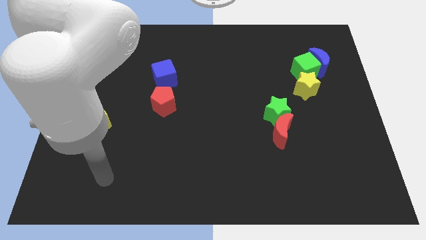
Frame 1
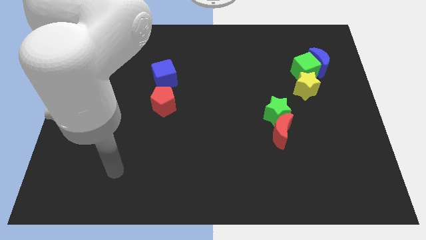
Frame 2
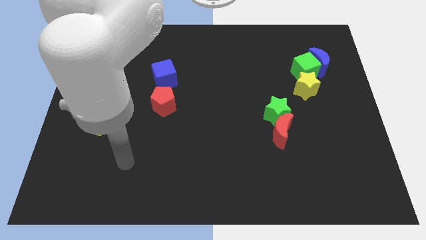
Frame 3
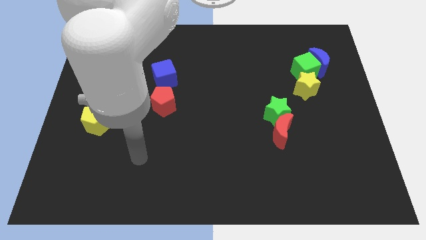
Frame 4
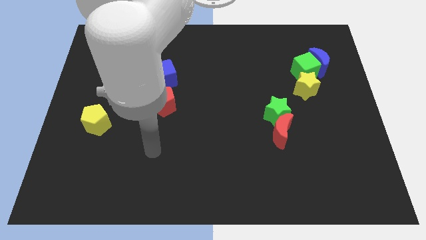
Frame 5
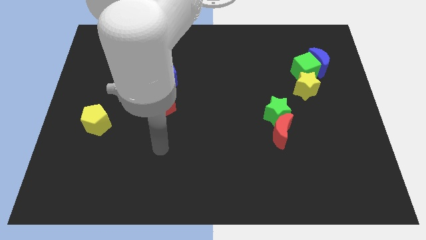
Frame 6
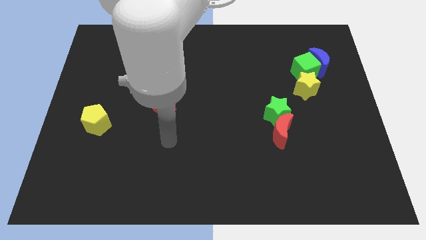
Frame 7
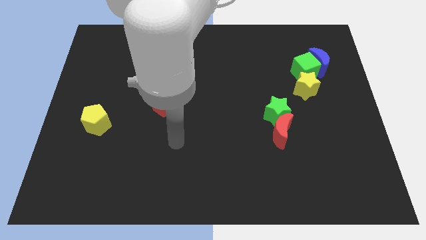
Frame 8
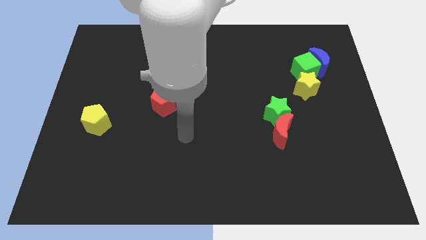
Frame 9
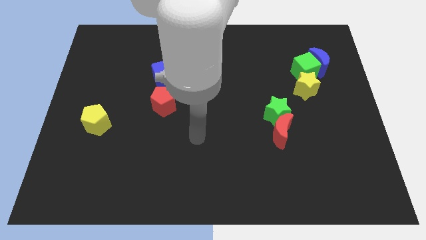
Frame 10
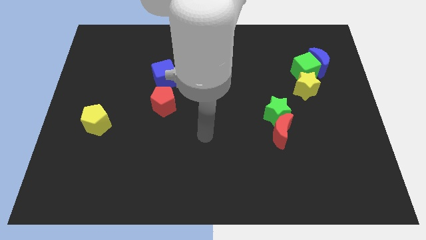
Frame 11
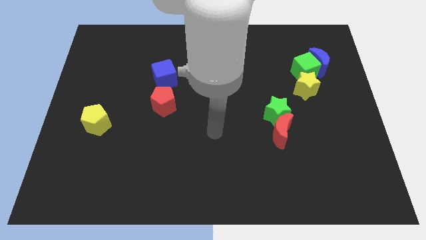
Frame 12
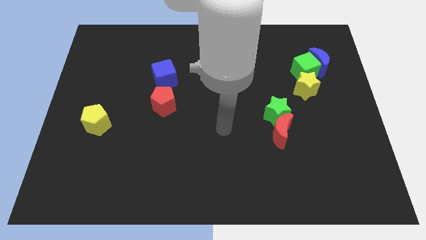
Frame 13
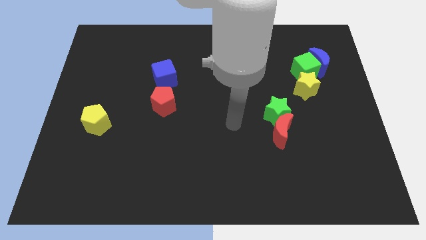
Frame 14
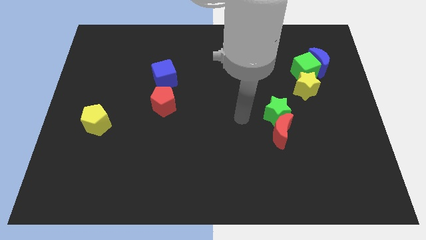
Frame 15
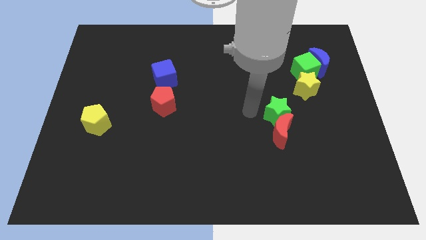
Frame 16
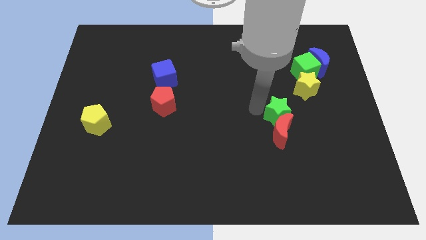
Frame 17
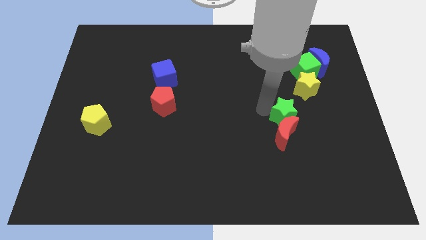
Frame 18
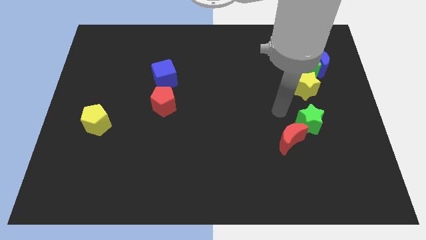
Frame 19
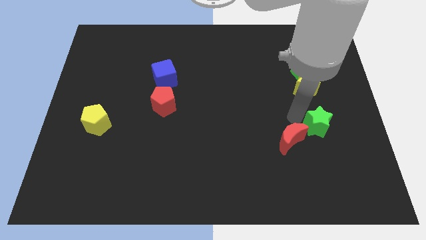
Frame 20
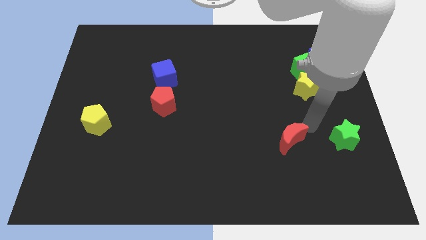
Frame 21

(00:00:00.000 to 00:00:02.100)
pull the red moon apart from the green star

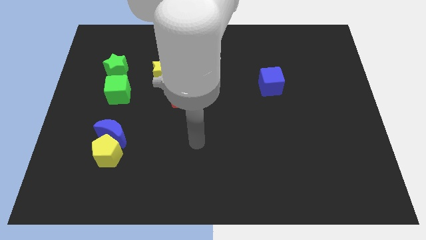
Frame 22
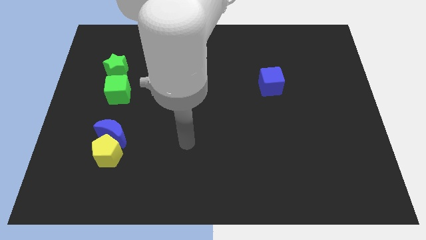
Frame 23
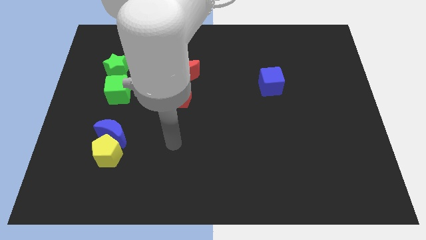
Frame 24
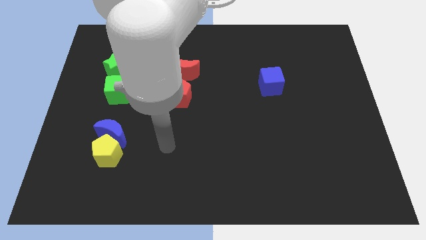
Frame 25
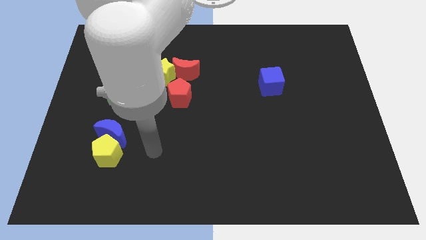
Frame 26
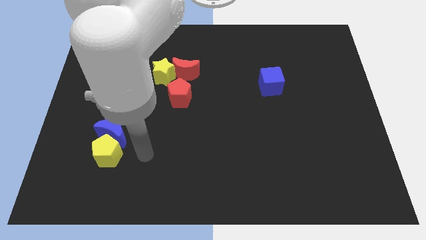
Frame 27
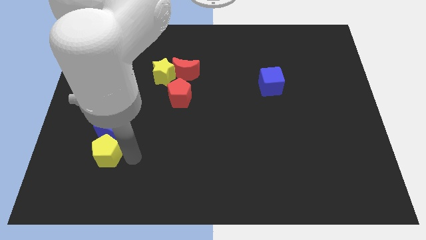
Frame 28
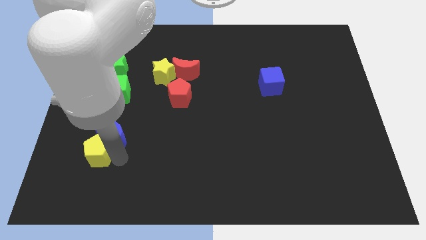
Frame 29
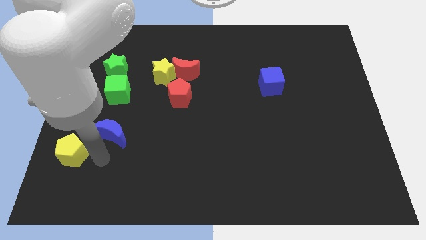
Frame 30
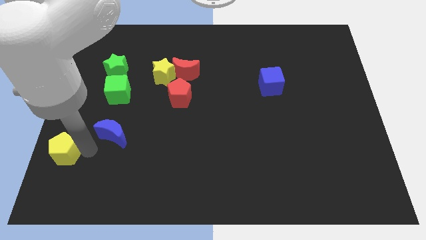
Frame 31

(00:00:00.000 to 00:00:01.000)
separate the blue moon from the yellow pentagon

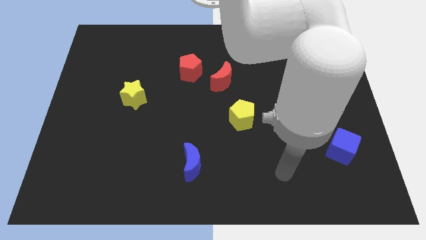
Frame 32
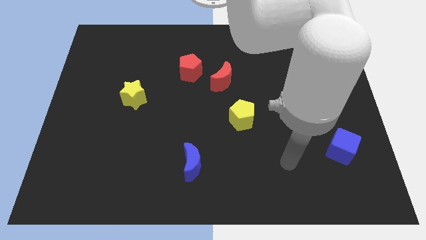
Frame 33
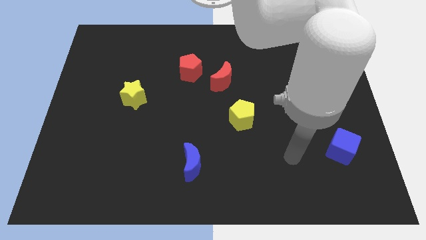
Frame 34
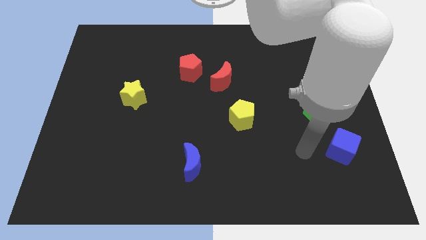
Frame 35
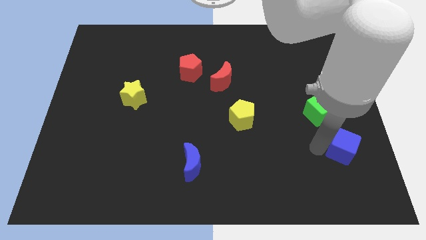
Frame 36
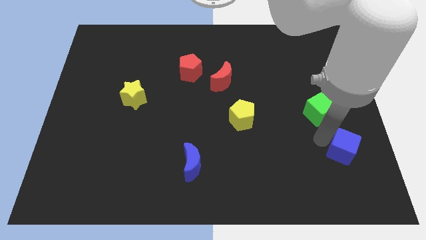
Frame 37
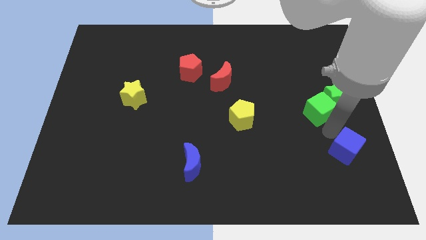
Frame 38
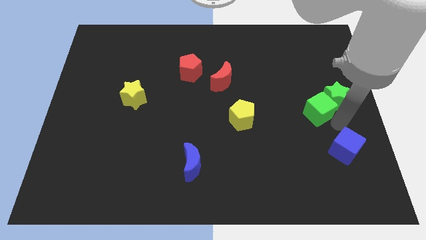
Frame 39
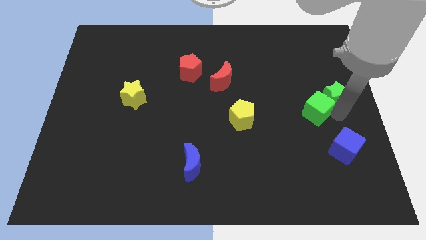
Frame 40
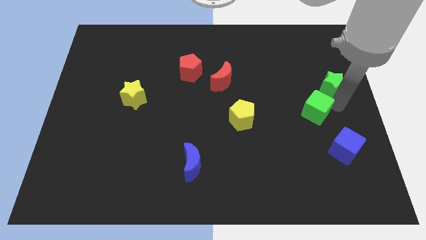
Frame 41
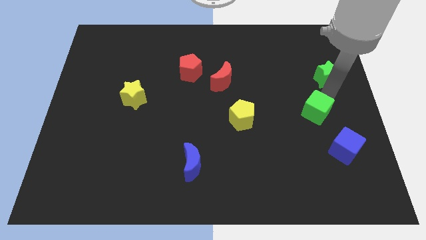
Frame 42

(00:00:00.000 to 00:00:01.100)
pull the green cube apart from the green star

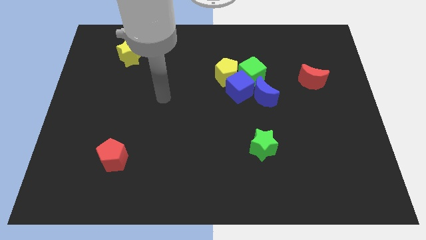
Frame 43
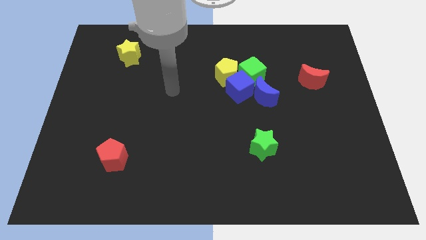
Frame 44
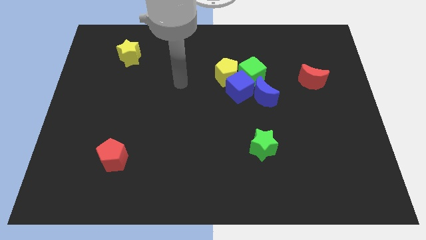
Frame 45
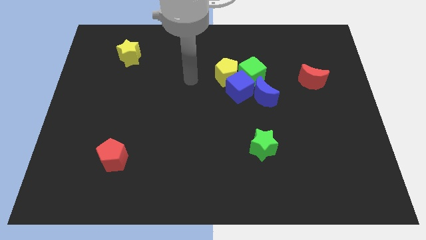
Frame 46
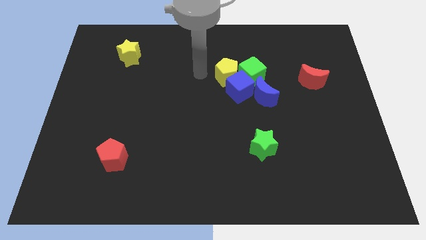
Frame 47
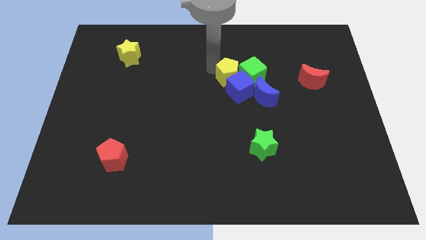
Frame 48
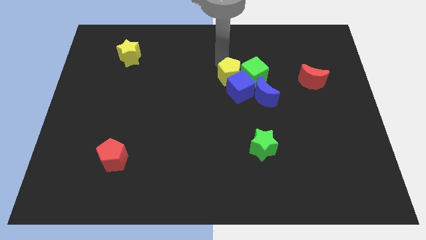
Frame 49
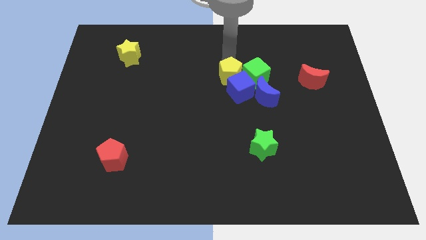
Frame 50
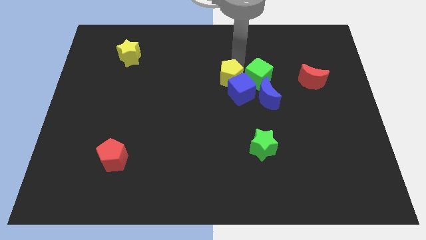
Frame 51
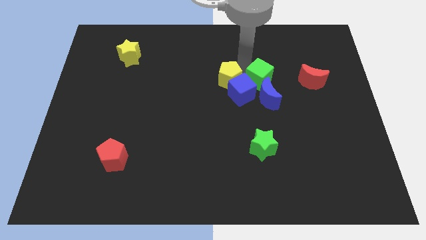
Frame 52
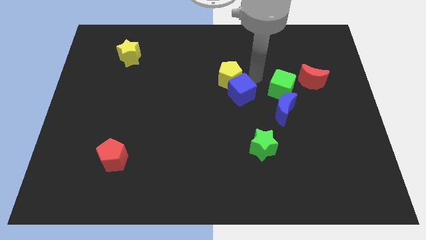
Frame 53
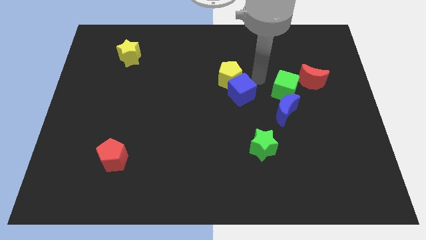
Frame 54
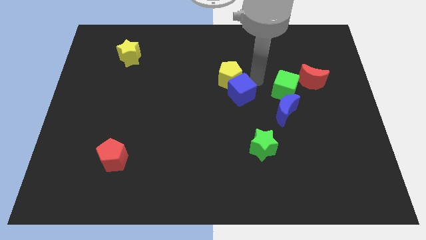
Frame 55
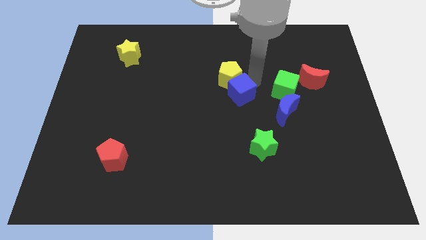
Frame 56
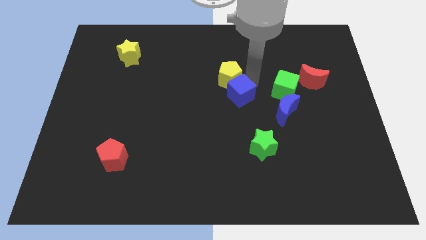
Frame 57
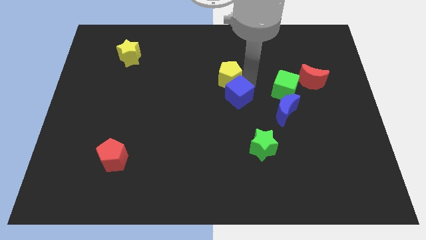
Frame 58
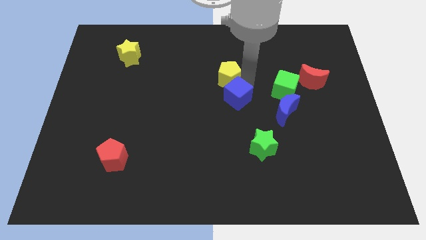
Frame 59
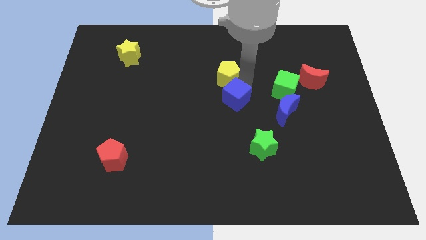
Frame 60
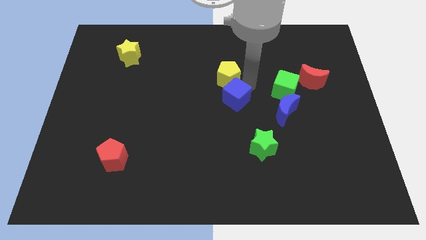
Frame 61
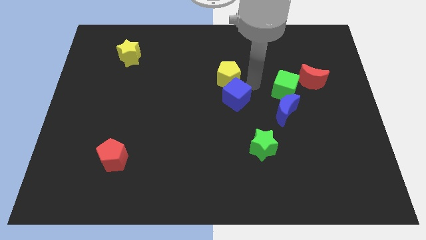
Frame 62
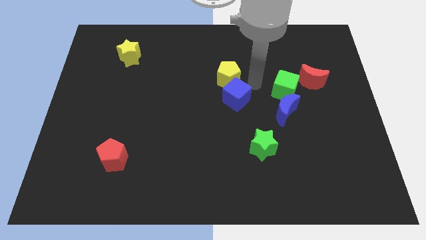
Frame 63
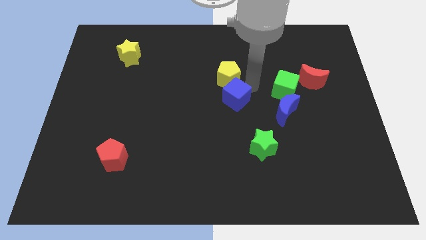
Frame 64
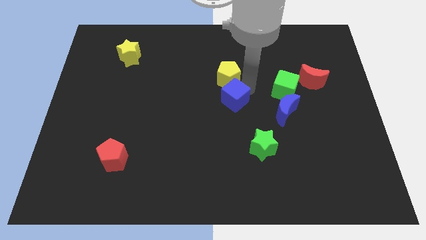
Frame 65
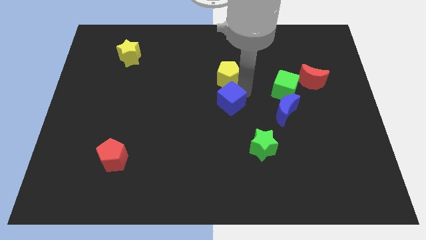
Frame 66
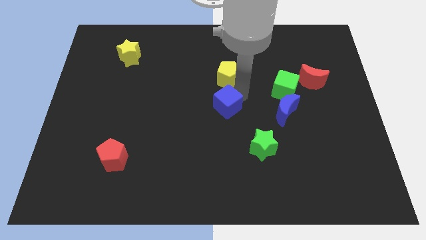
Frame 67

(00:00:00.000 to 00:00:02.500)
separate the blue cube from the group

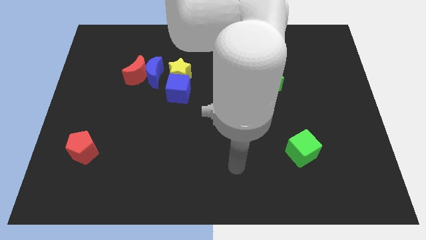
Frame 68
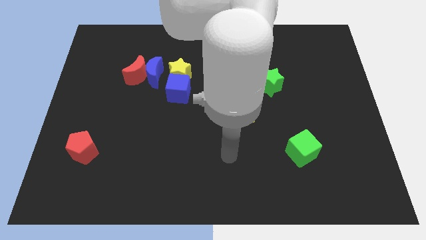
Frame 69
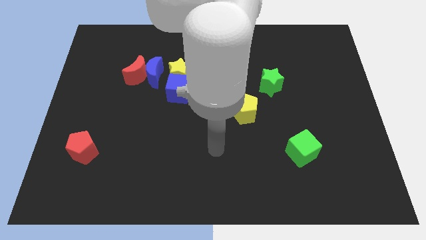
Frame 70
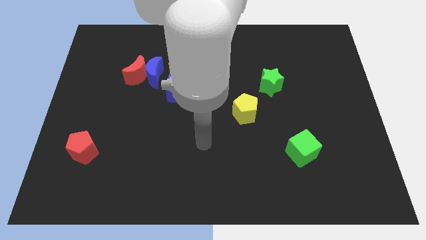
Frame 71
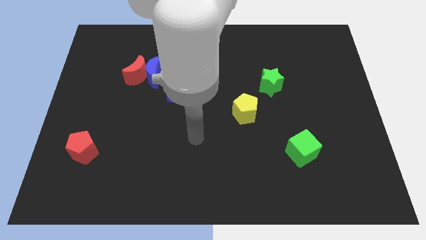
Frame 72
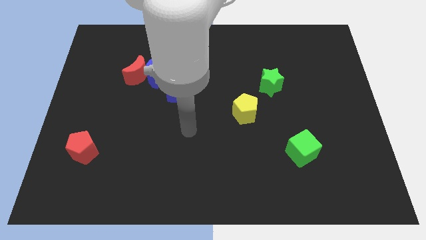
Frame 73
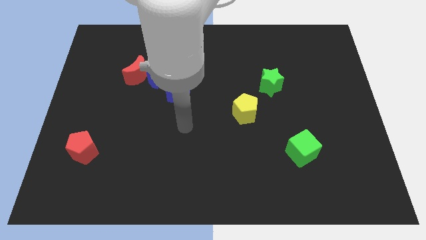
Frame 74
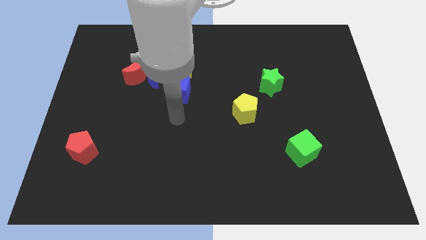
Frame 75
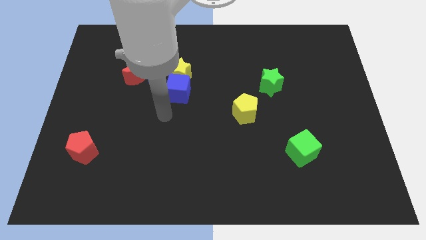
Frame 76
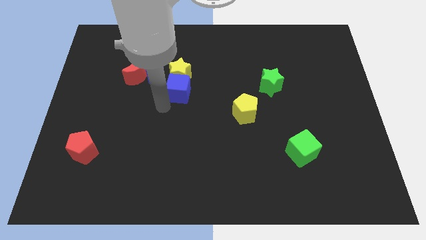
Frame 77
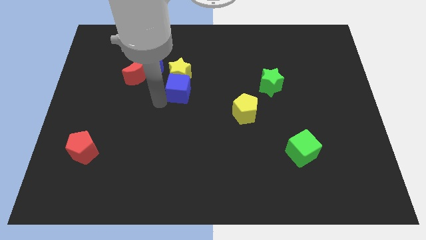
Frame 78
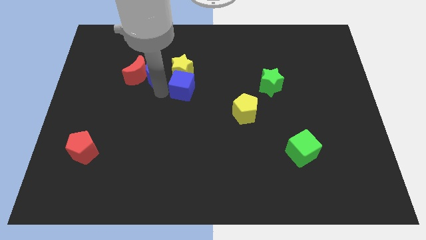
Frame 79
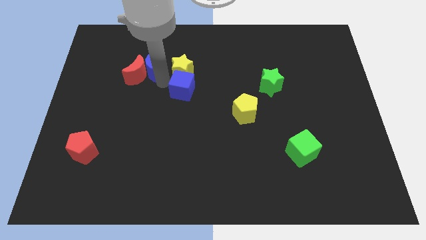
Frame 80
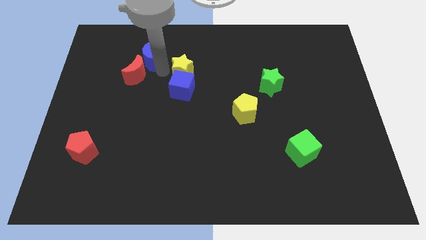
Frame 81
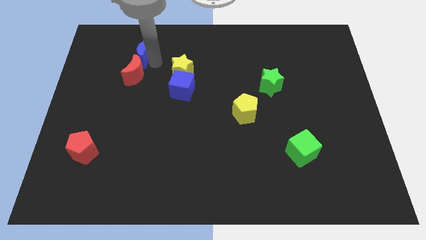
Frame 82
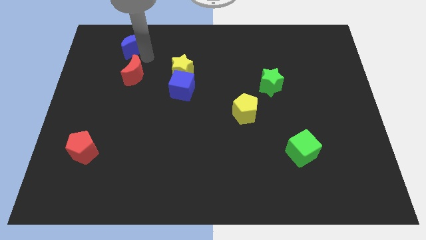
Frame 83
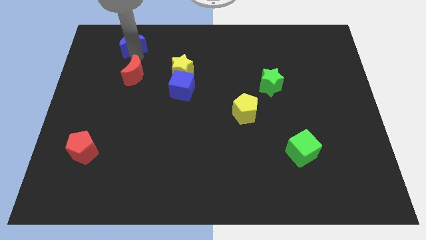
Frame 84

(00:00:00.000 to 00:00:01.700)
move the red moon away from the blue moon

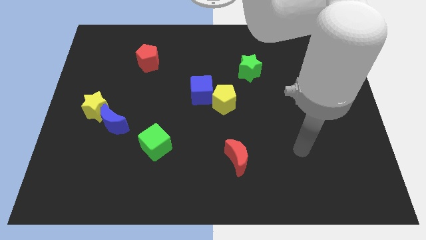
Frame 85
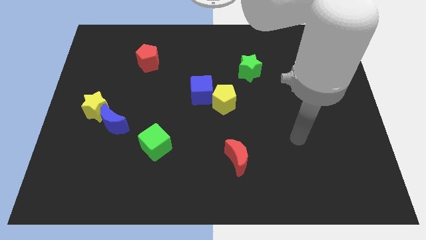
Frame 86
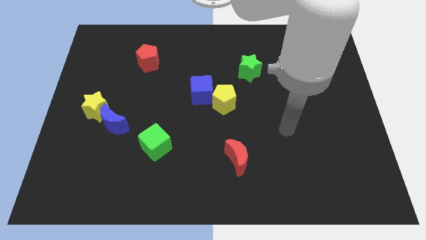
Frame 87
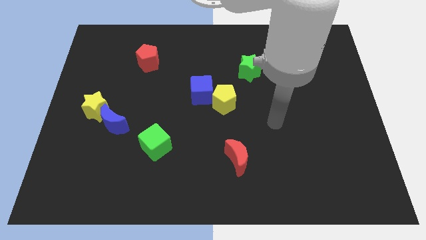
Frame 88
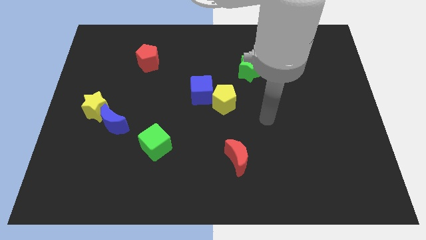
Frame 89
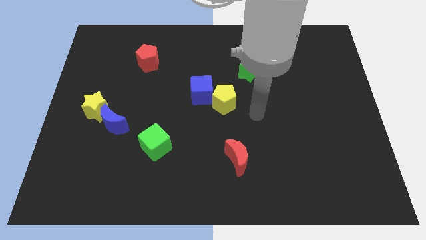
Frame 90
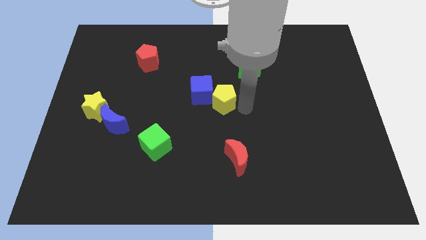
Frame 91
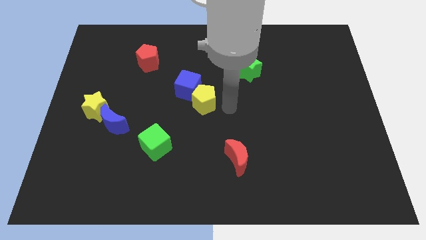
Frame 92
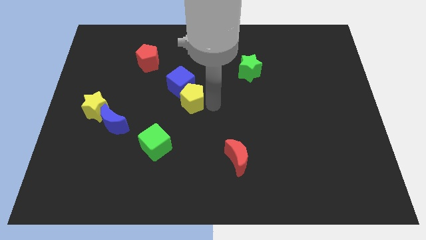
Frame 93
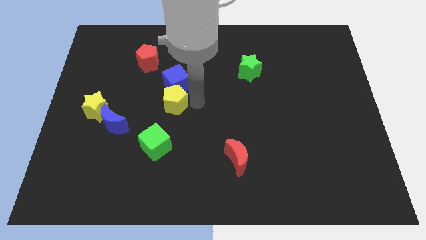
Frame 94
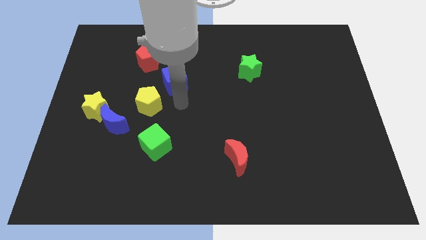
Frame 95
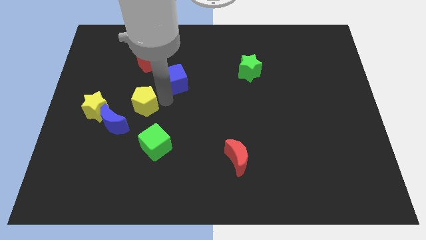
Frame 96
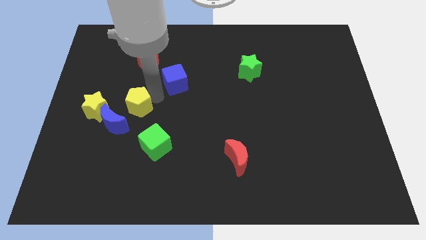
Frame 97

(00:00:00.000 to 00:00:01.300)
separate the blue cube from the yellow pentagon
